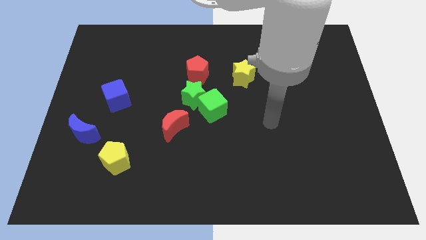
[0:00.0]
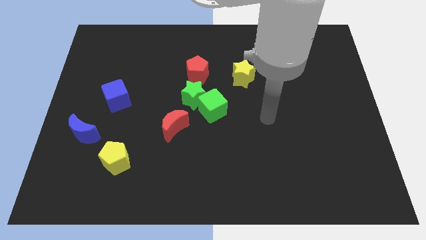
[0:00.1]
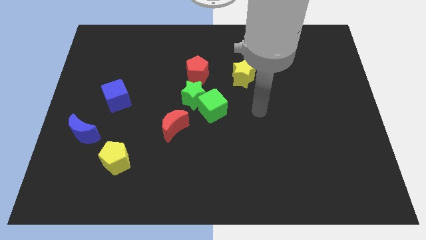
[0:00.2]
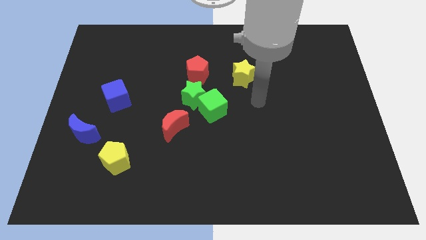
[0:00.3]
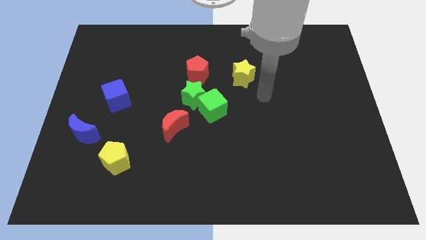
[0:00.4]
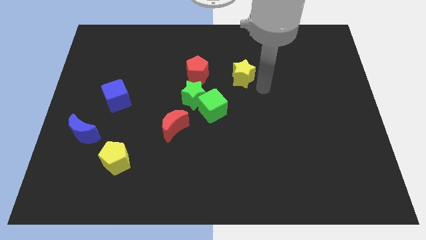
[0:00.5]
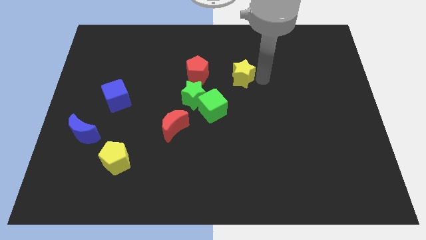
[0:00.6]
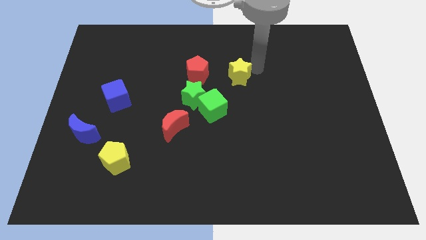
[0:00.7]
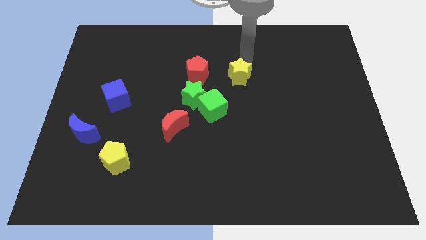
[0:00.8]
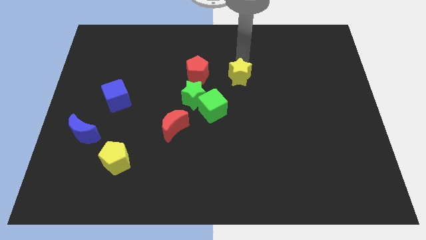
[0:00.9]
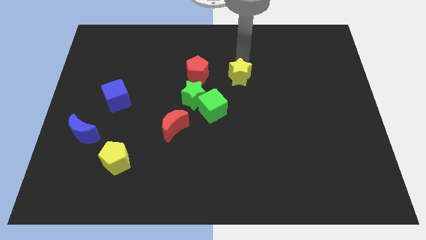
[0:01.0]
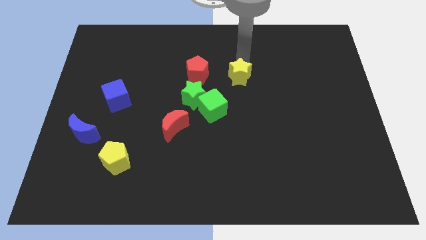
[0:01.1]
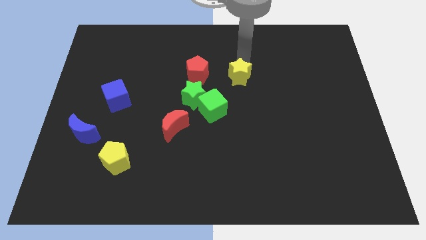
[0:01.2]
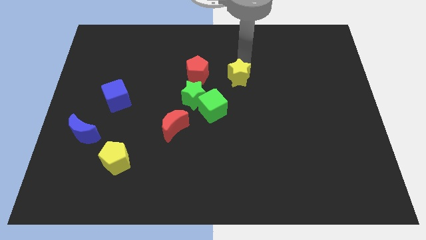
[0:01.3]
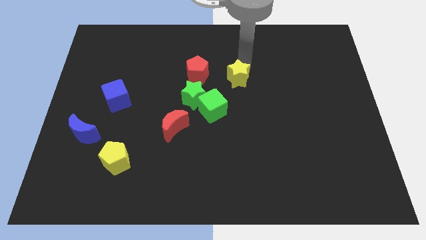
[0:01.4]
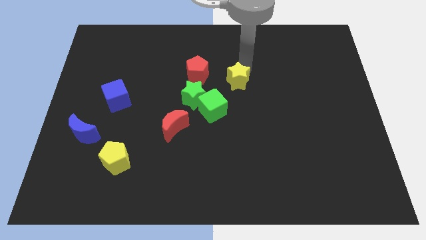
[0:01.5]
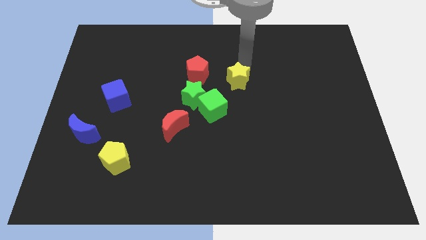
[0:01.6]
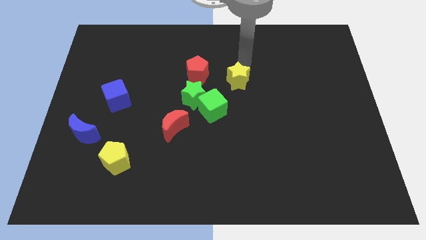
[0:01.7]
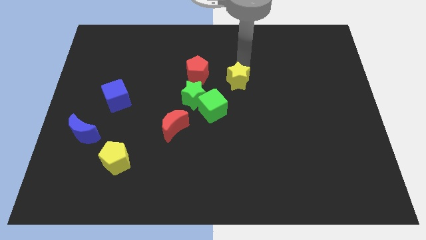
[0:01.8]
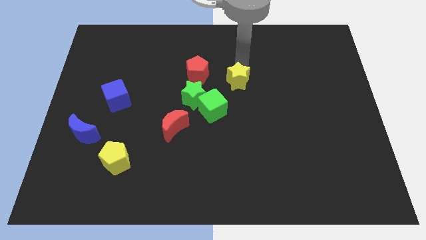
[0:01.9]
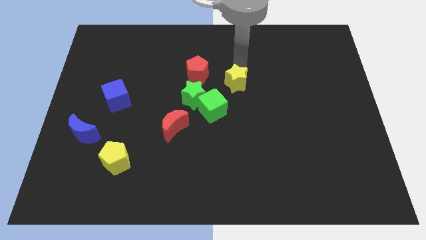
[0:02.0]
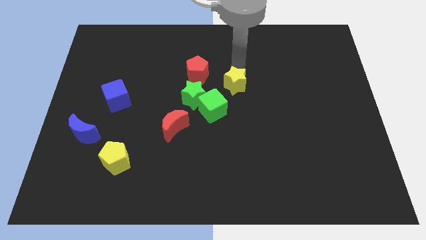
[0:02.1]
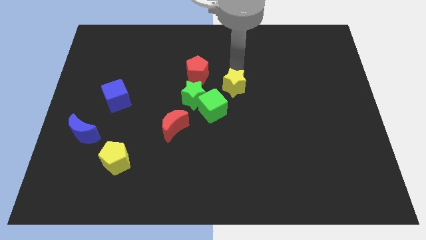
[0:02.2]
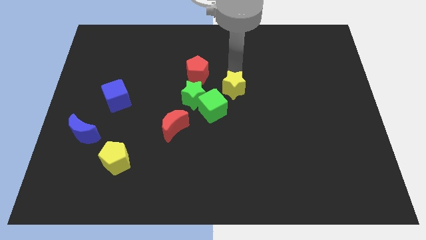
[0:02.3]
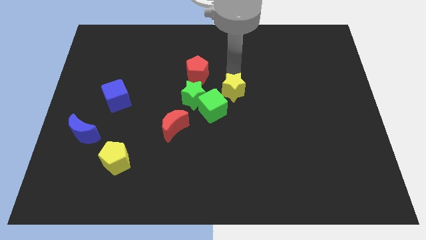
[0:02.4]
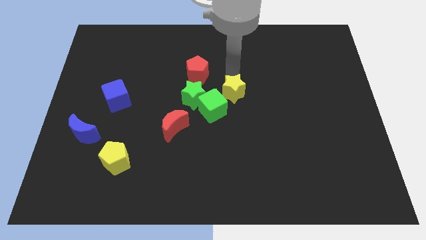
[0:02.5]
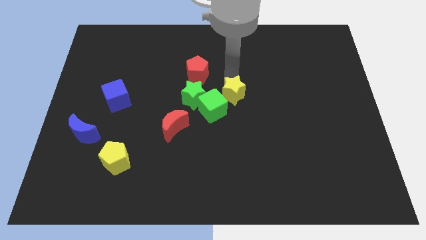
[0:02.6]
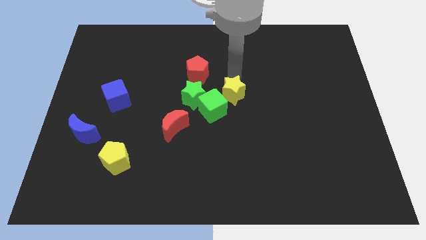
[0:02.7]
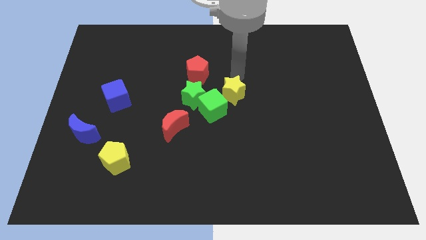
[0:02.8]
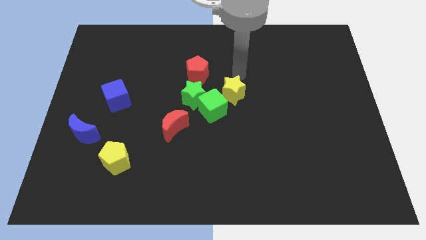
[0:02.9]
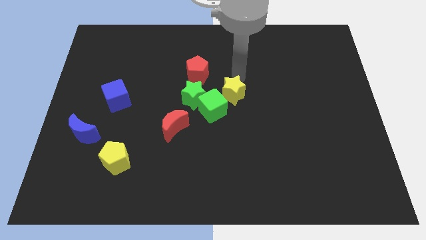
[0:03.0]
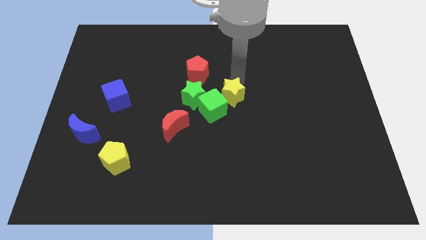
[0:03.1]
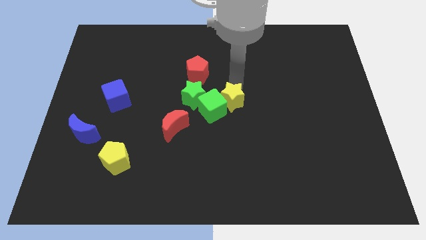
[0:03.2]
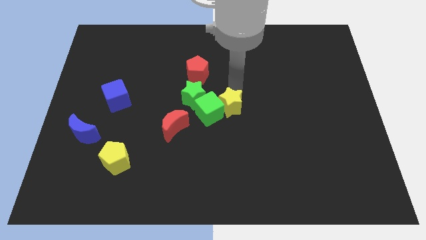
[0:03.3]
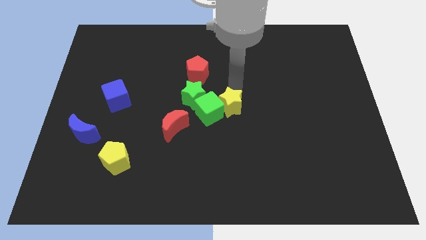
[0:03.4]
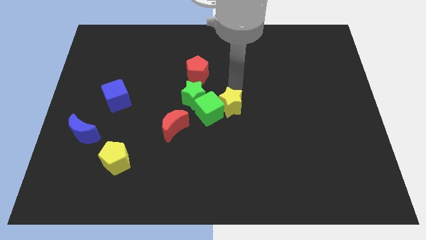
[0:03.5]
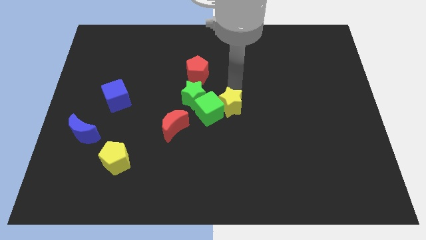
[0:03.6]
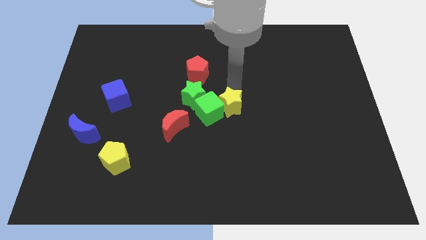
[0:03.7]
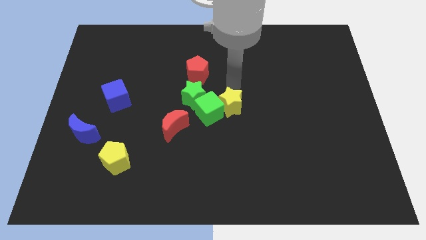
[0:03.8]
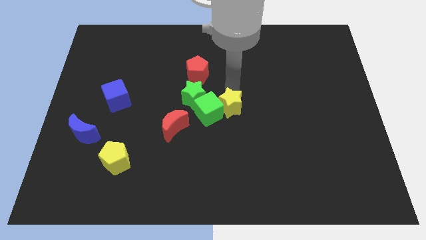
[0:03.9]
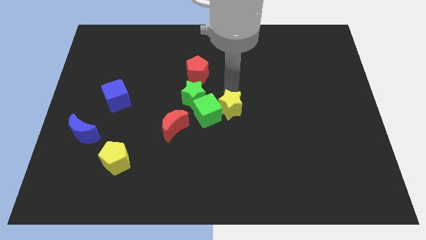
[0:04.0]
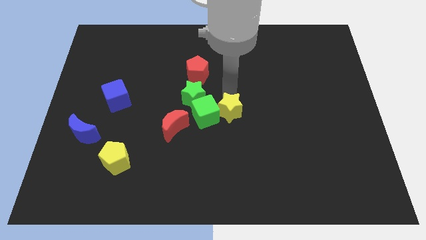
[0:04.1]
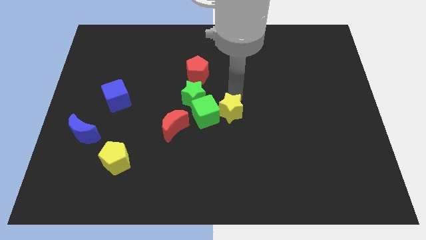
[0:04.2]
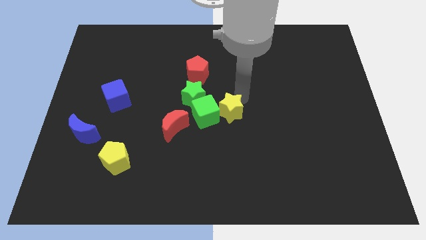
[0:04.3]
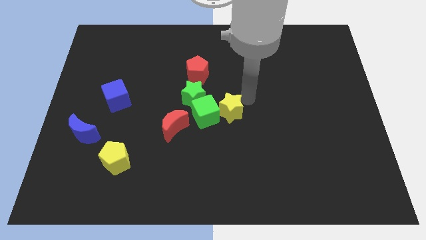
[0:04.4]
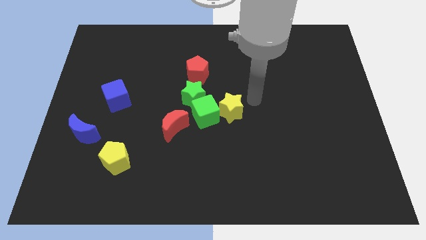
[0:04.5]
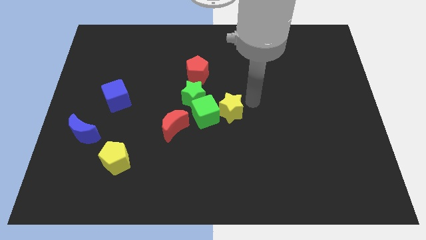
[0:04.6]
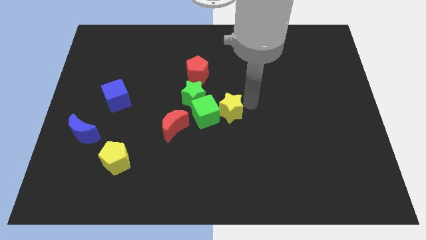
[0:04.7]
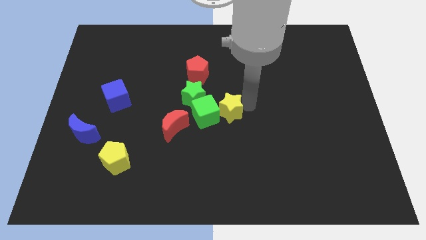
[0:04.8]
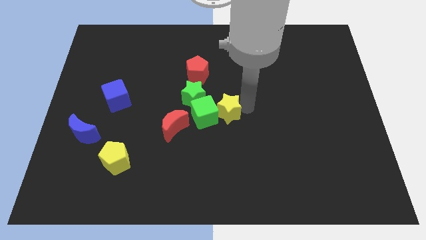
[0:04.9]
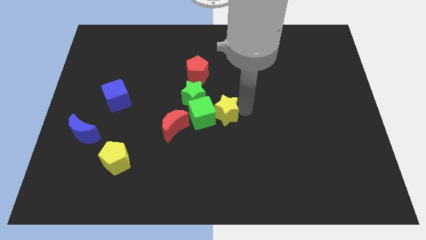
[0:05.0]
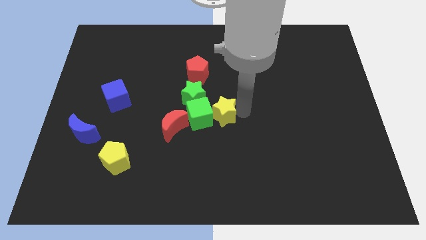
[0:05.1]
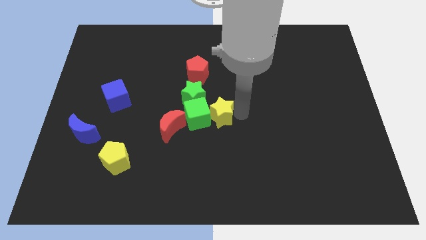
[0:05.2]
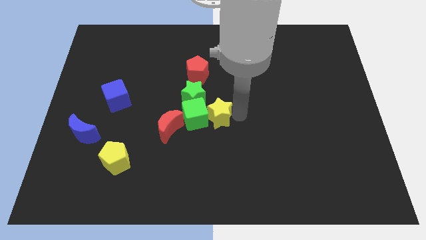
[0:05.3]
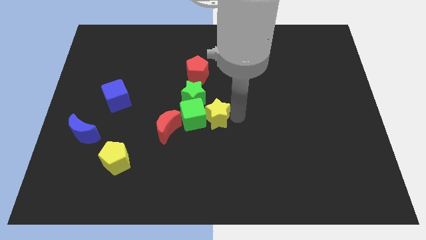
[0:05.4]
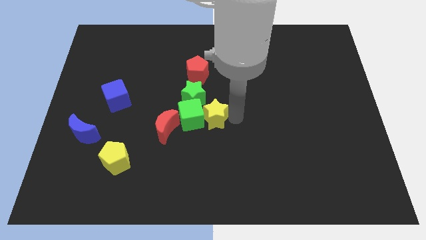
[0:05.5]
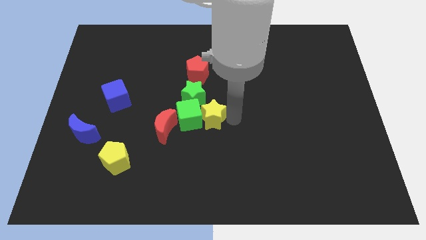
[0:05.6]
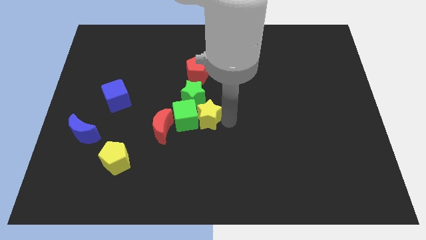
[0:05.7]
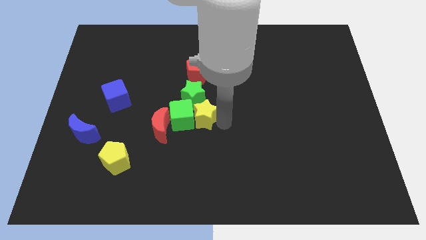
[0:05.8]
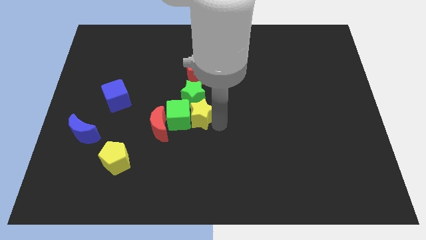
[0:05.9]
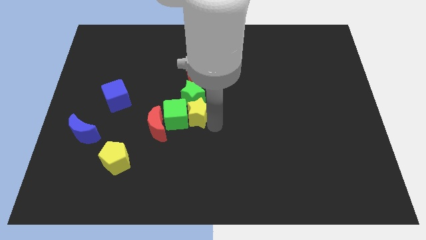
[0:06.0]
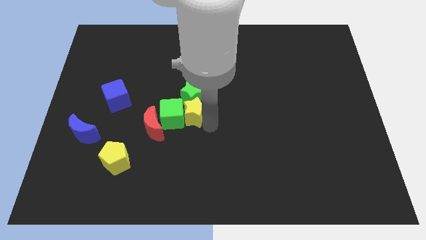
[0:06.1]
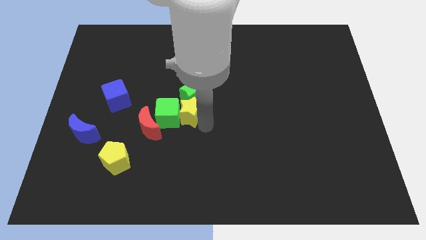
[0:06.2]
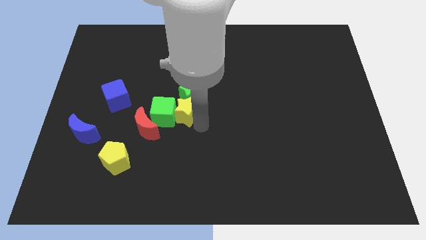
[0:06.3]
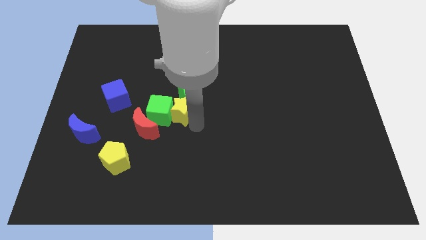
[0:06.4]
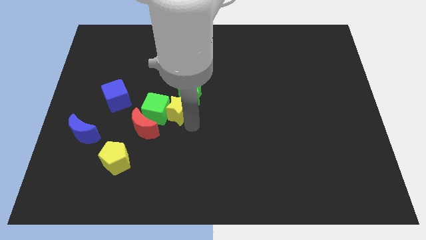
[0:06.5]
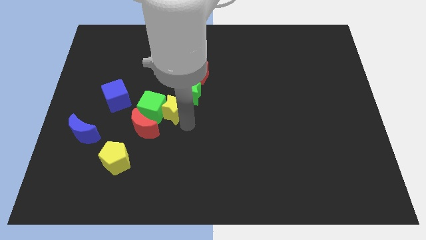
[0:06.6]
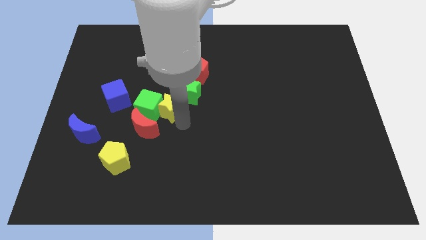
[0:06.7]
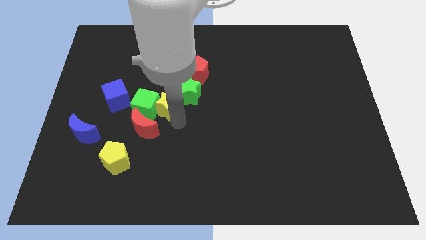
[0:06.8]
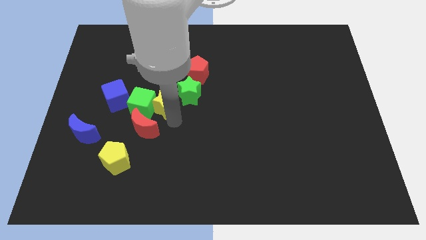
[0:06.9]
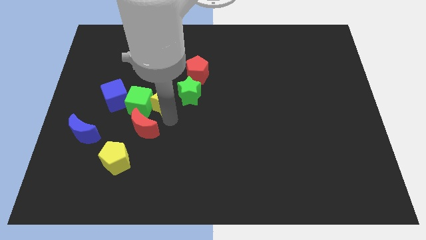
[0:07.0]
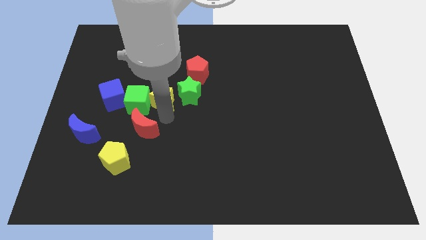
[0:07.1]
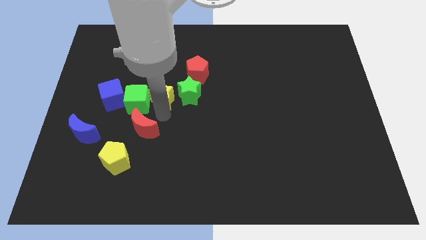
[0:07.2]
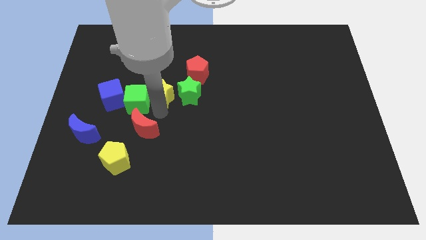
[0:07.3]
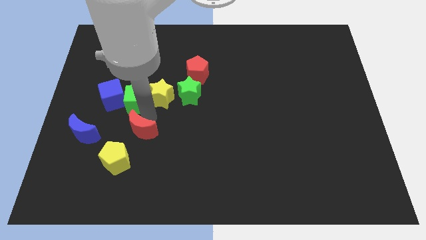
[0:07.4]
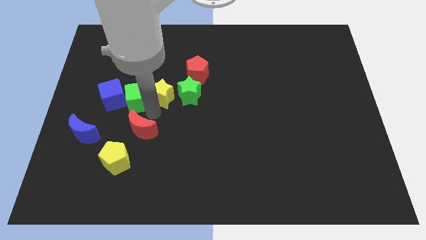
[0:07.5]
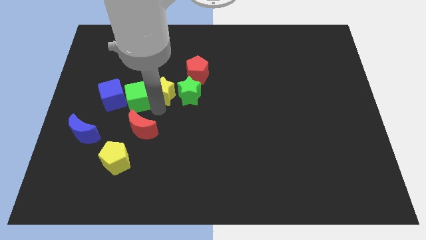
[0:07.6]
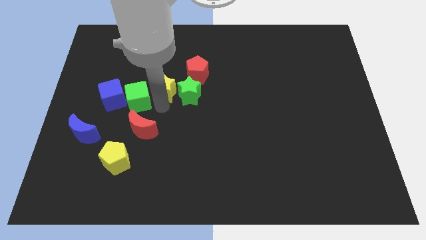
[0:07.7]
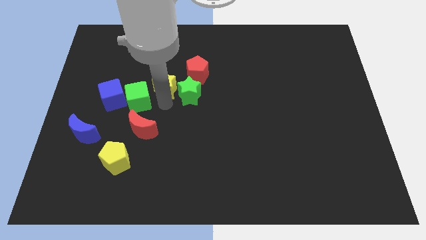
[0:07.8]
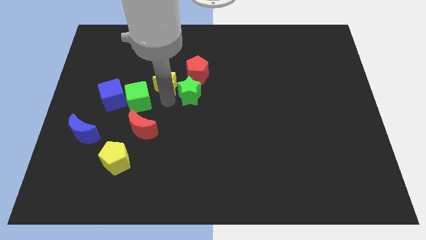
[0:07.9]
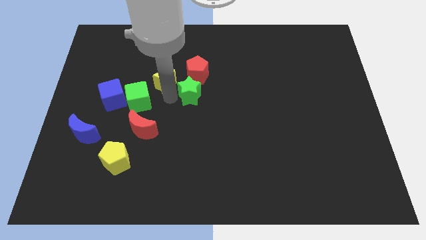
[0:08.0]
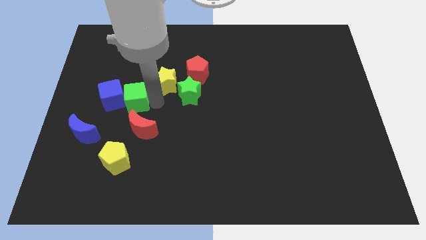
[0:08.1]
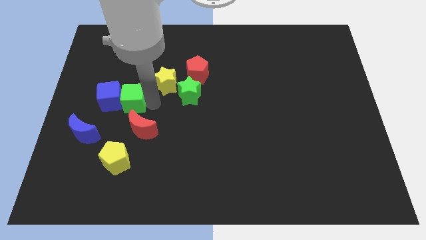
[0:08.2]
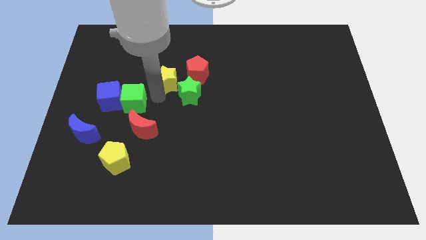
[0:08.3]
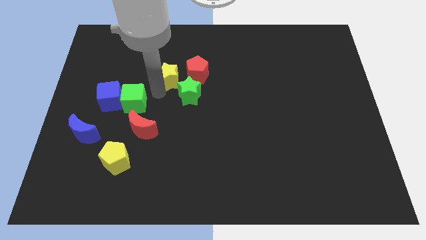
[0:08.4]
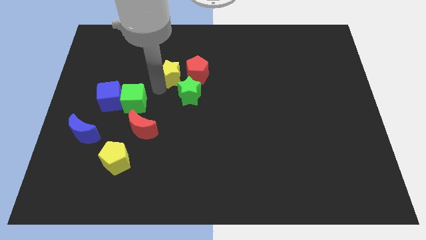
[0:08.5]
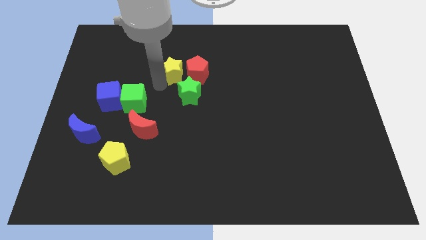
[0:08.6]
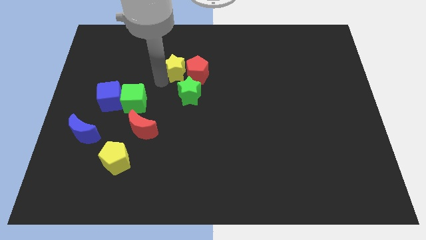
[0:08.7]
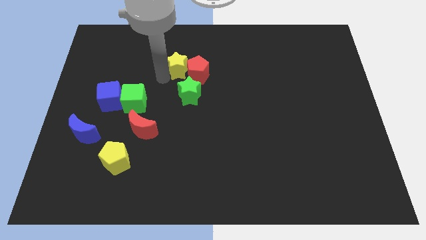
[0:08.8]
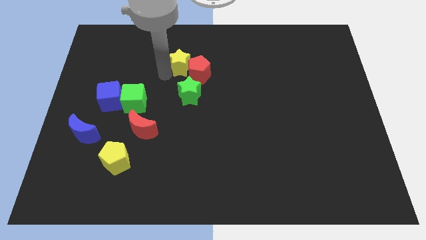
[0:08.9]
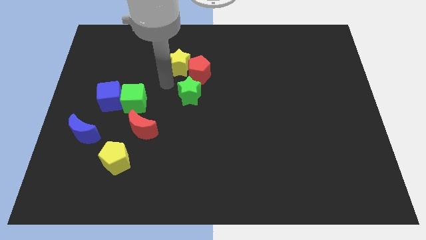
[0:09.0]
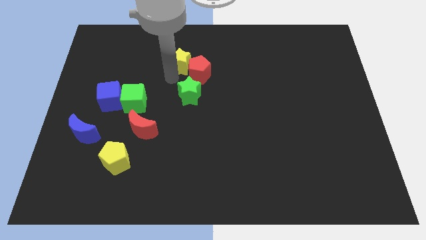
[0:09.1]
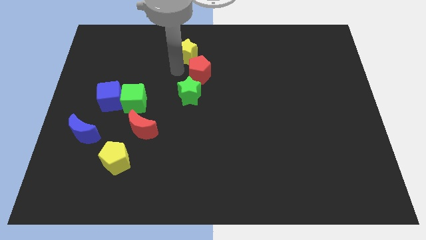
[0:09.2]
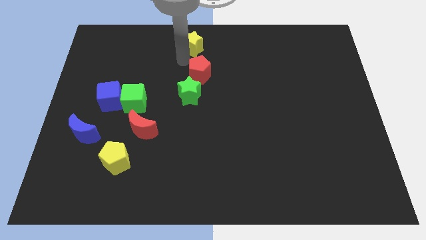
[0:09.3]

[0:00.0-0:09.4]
push the yellow star to the top
